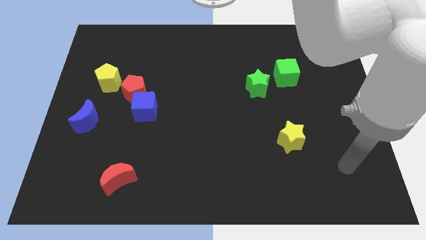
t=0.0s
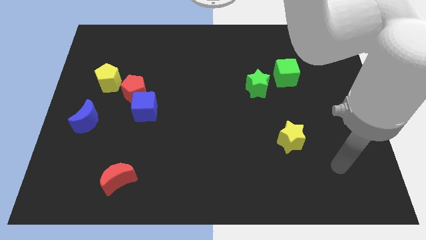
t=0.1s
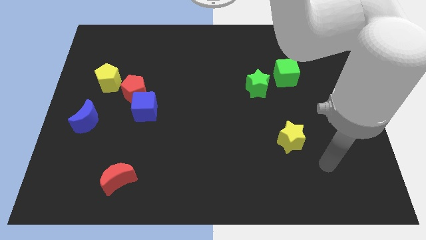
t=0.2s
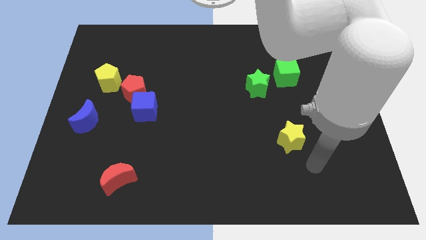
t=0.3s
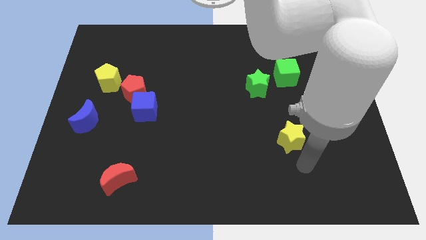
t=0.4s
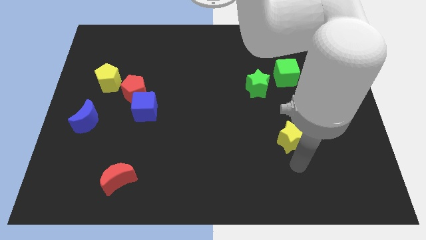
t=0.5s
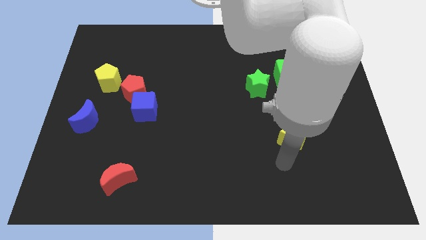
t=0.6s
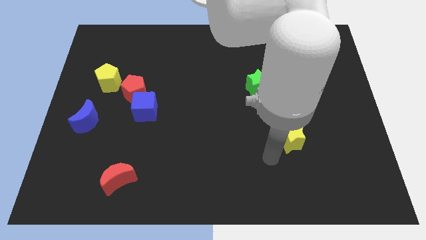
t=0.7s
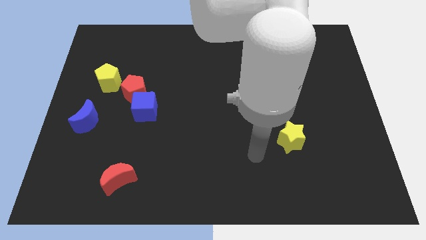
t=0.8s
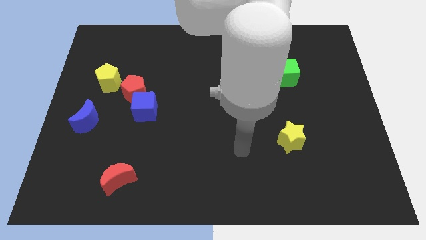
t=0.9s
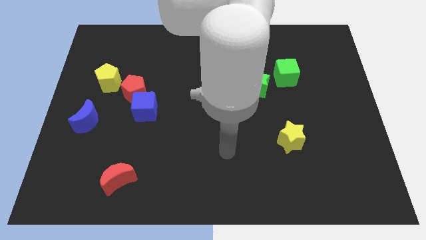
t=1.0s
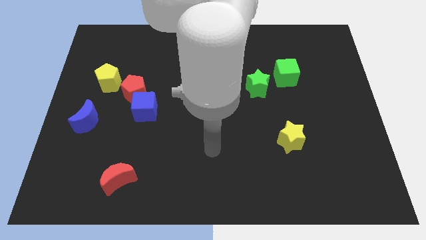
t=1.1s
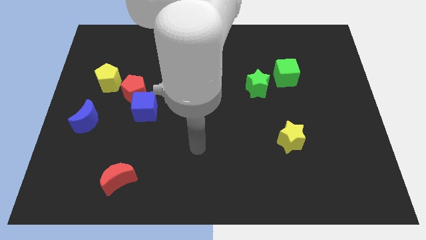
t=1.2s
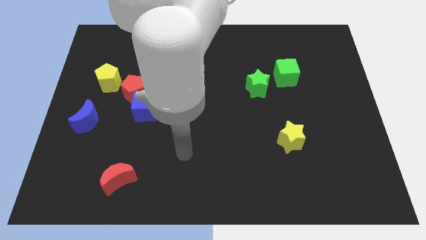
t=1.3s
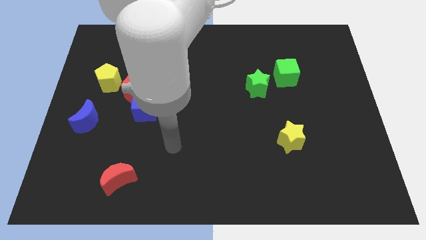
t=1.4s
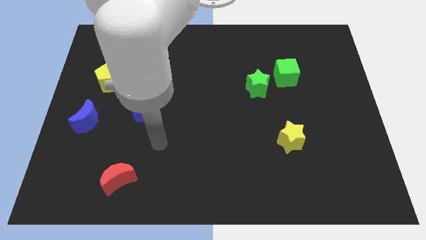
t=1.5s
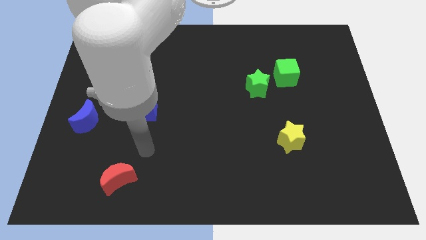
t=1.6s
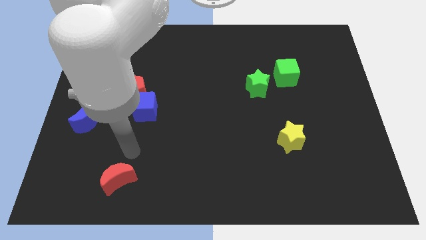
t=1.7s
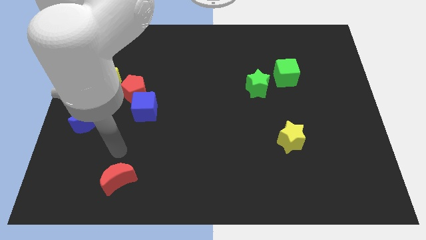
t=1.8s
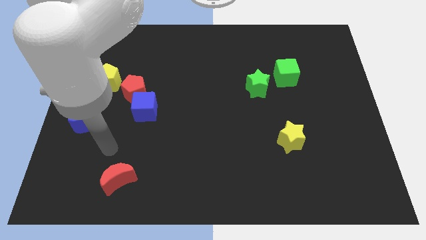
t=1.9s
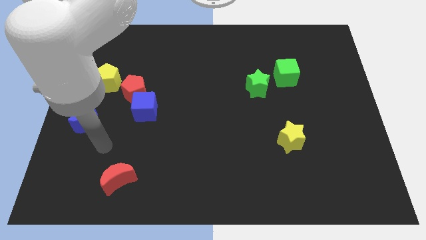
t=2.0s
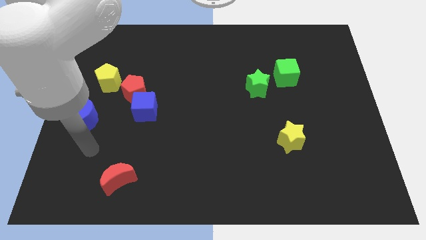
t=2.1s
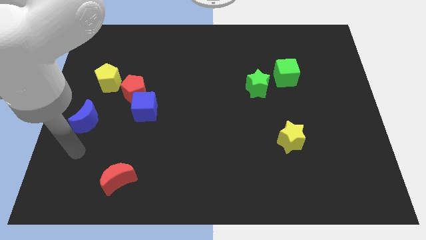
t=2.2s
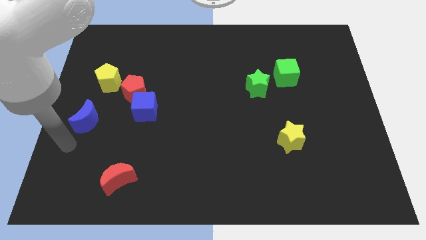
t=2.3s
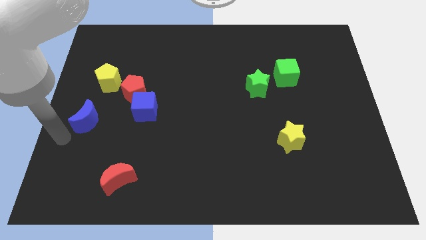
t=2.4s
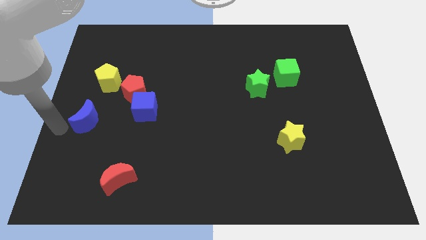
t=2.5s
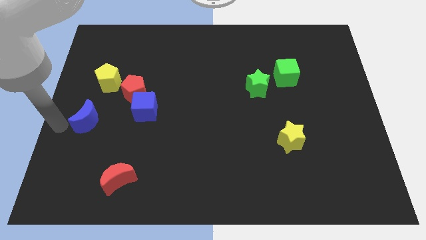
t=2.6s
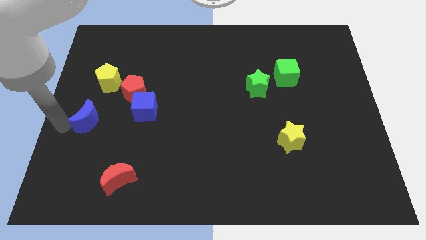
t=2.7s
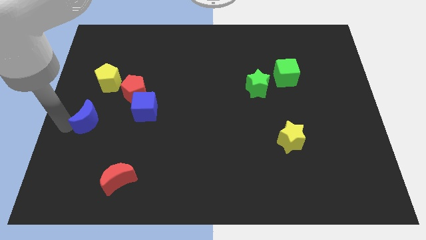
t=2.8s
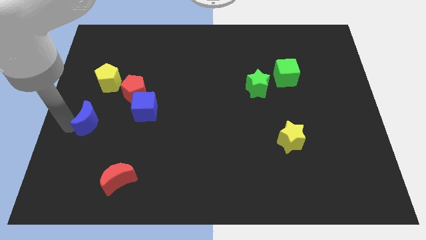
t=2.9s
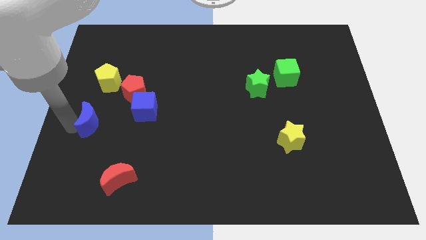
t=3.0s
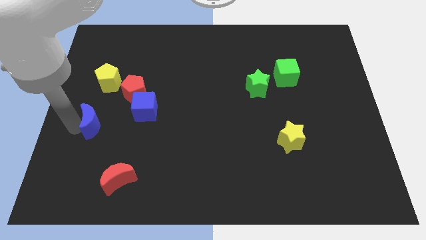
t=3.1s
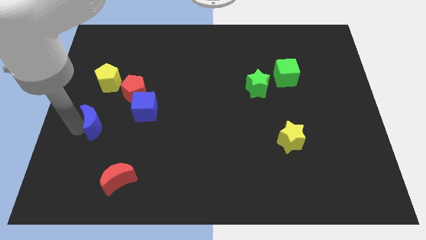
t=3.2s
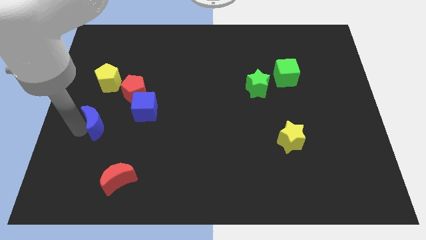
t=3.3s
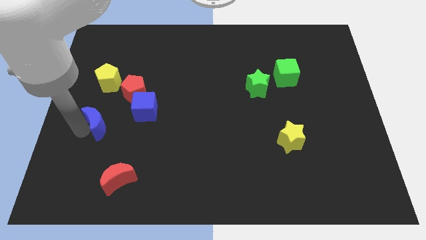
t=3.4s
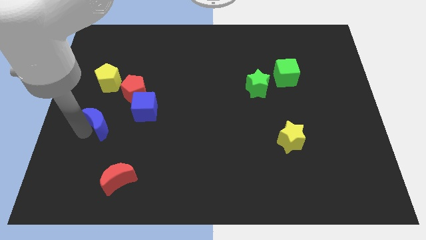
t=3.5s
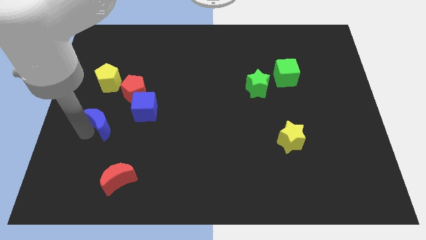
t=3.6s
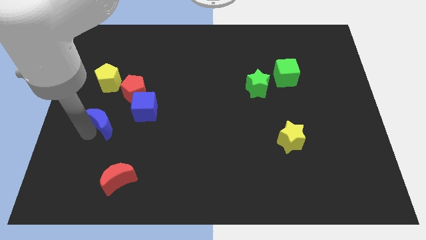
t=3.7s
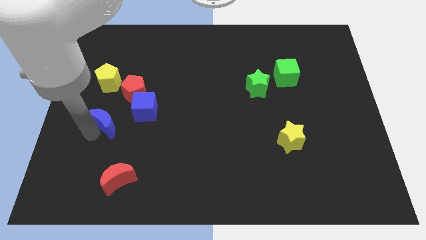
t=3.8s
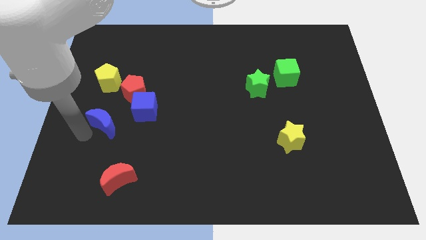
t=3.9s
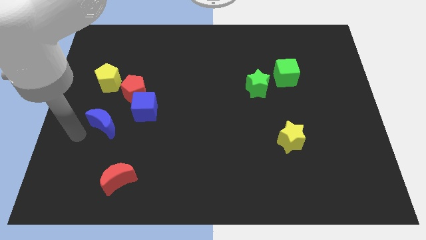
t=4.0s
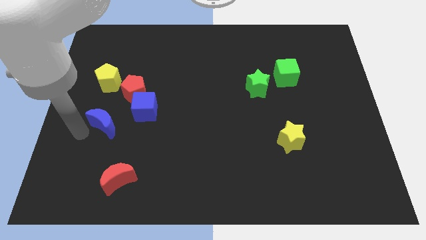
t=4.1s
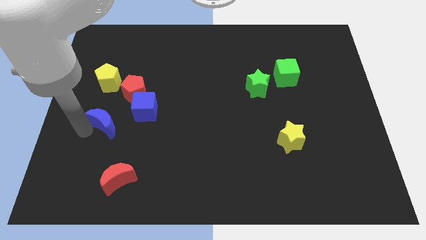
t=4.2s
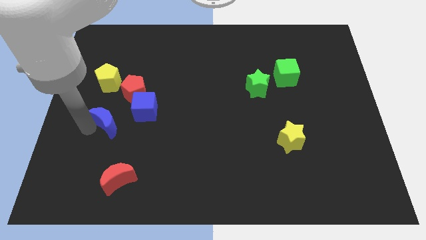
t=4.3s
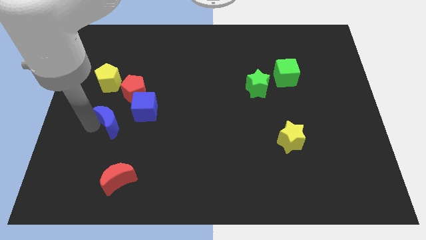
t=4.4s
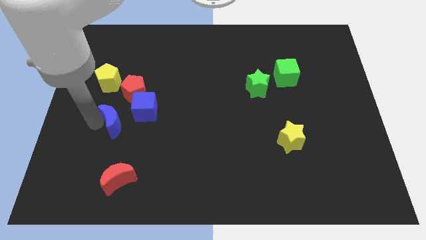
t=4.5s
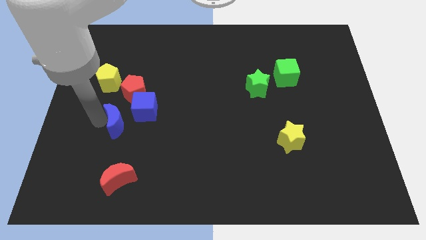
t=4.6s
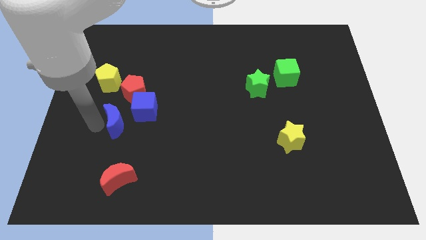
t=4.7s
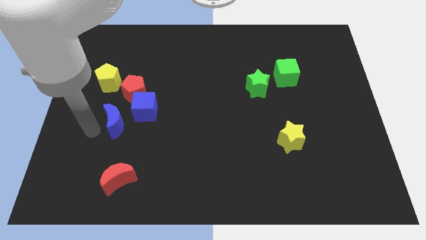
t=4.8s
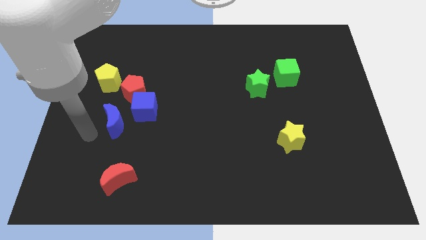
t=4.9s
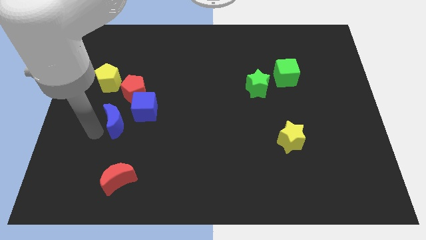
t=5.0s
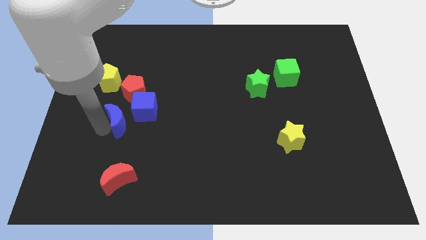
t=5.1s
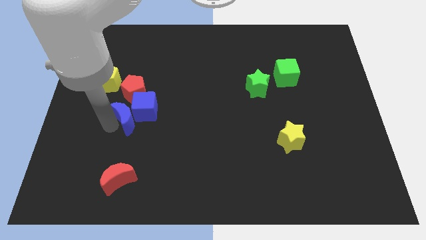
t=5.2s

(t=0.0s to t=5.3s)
push the blue moon to the blue cube

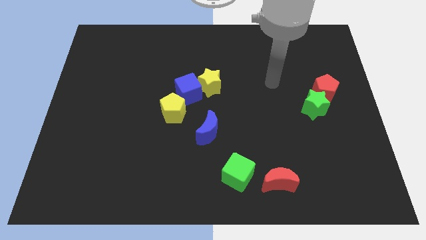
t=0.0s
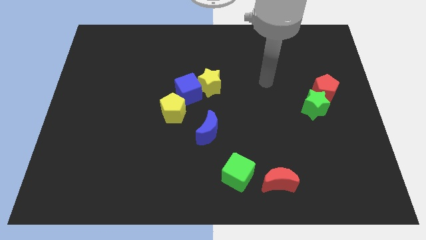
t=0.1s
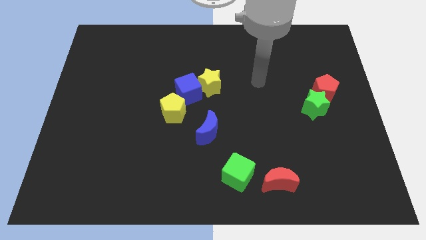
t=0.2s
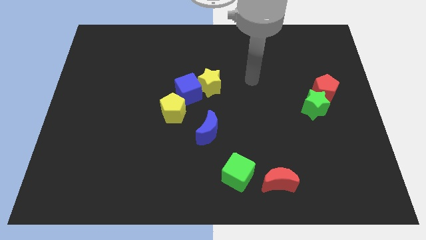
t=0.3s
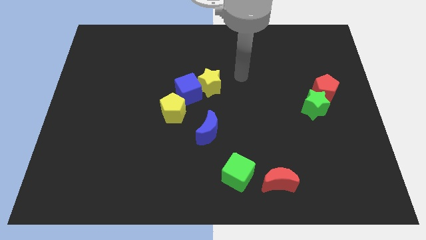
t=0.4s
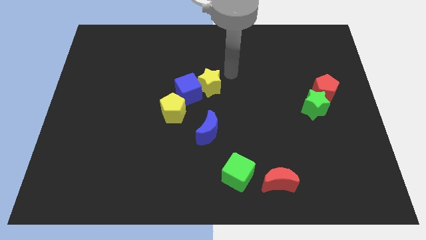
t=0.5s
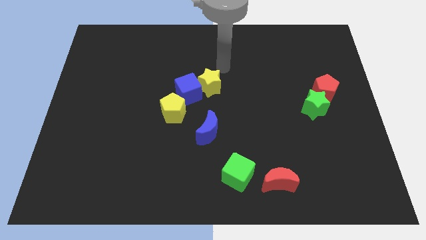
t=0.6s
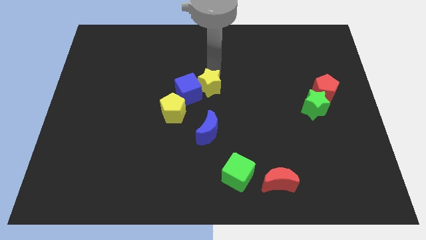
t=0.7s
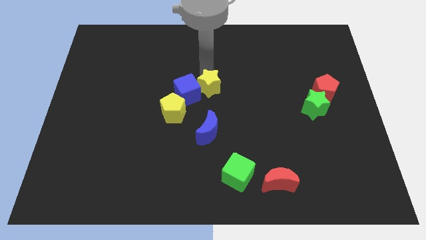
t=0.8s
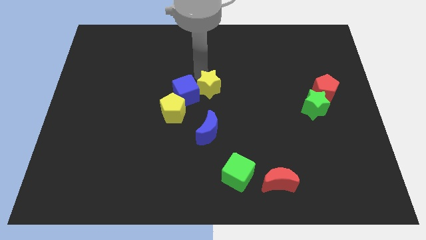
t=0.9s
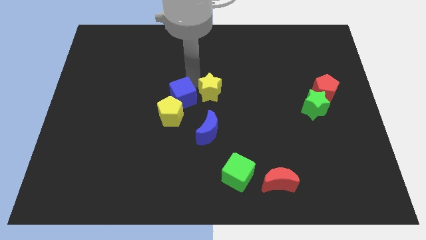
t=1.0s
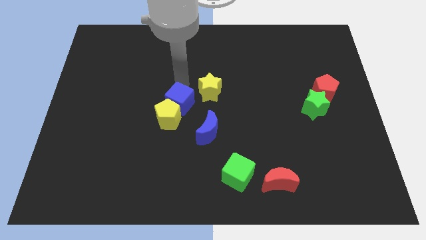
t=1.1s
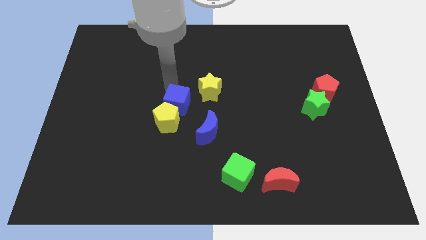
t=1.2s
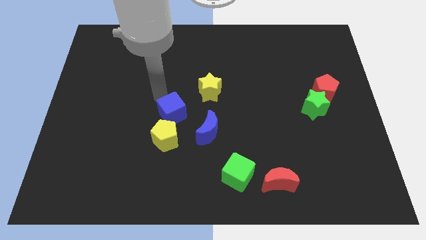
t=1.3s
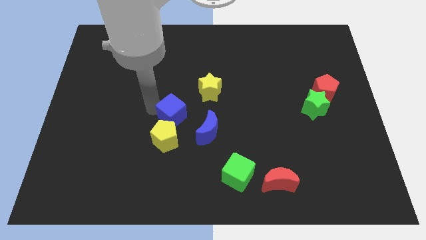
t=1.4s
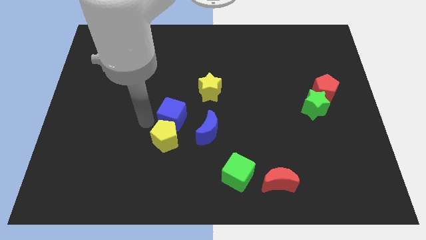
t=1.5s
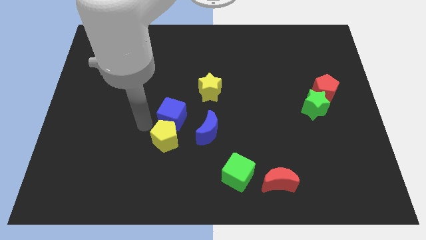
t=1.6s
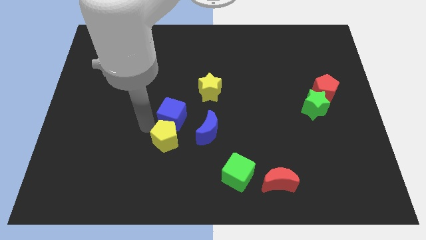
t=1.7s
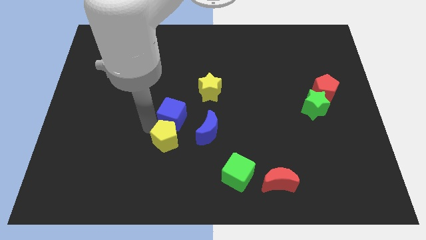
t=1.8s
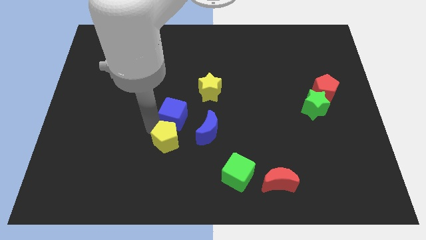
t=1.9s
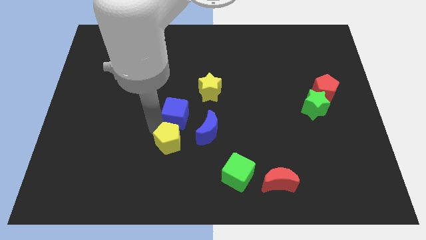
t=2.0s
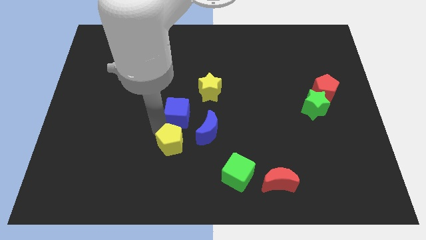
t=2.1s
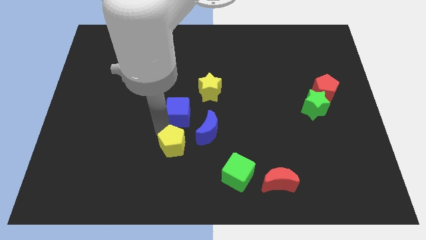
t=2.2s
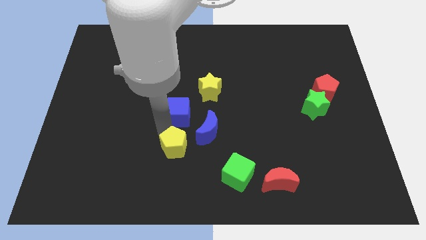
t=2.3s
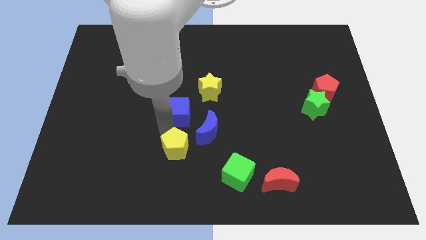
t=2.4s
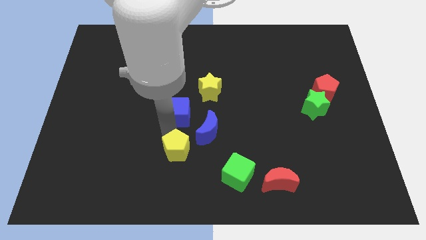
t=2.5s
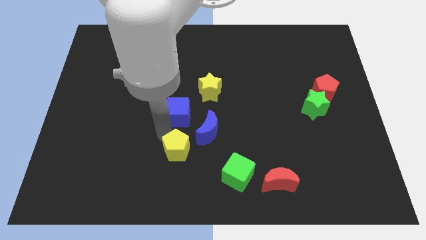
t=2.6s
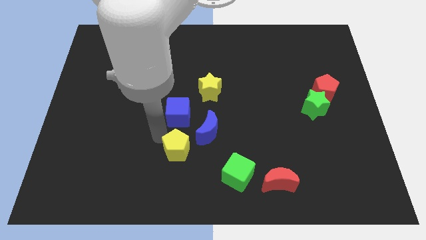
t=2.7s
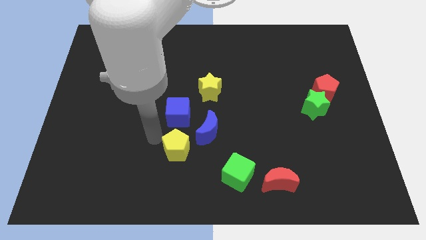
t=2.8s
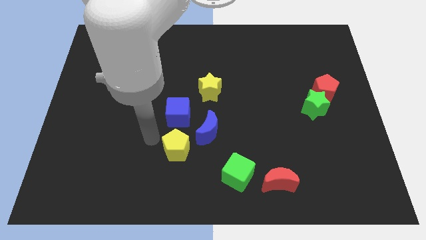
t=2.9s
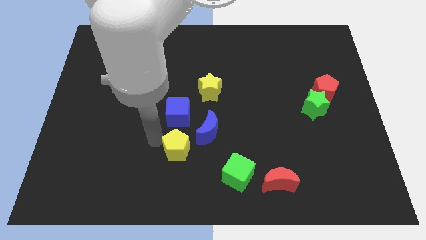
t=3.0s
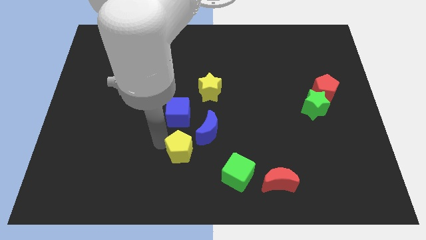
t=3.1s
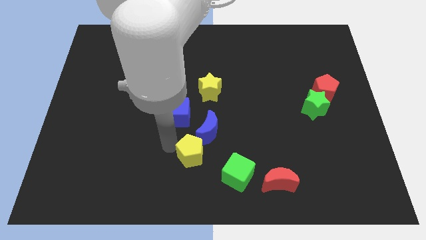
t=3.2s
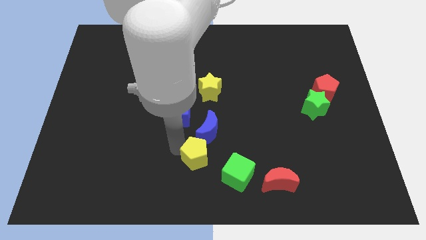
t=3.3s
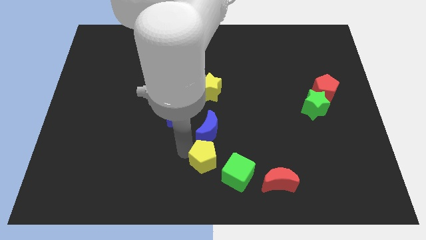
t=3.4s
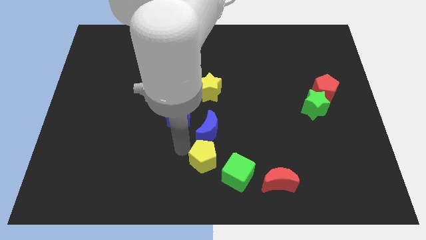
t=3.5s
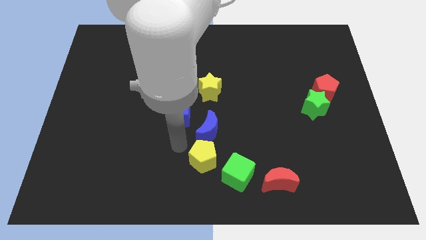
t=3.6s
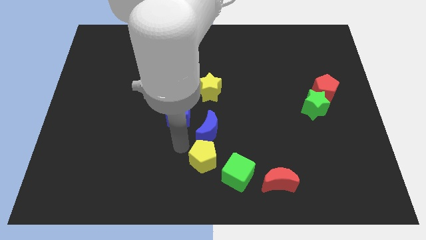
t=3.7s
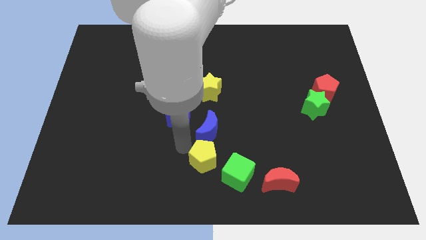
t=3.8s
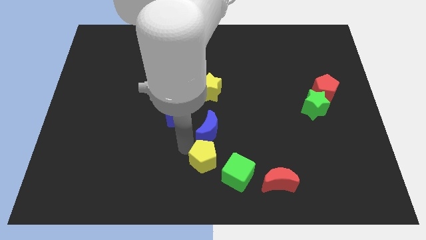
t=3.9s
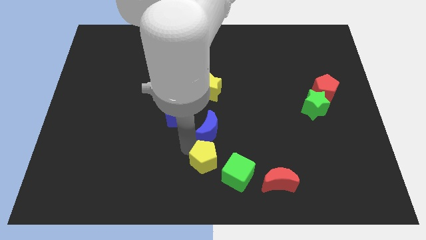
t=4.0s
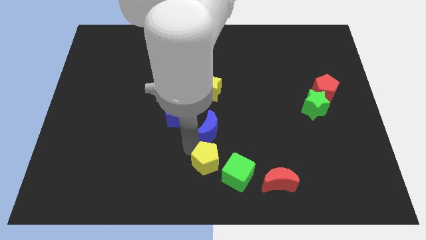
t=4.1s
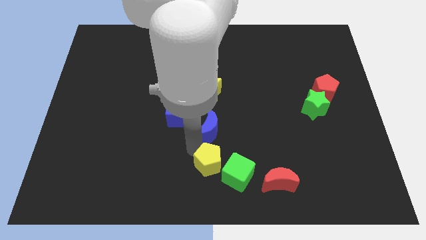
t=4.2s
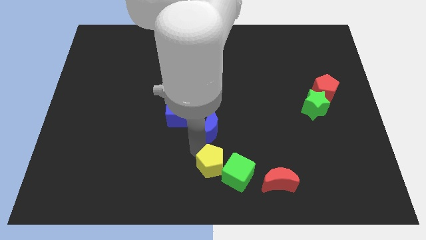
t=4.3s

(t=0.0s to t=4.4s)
put the yellow pentagon next to the green cube
